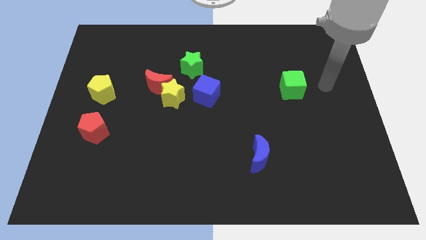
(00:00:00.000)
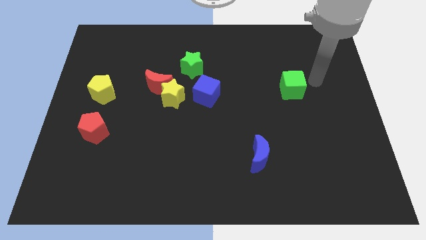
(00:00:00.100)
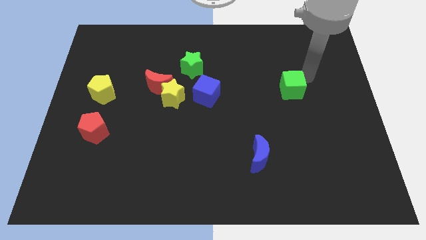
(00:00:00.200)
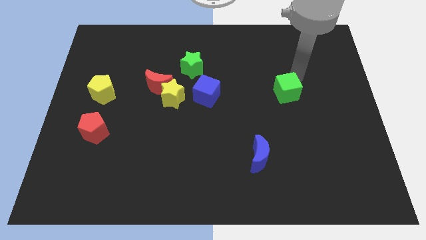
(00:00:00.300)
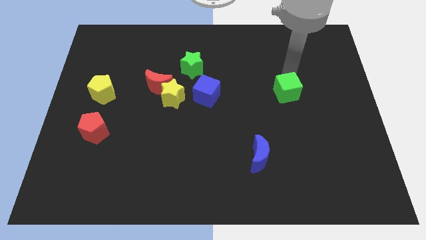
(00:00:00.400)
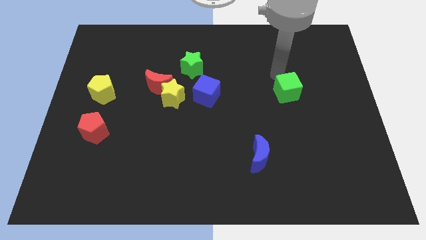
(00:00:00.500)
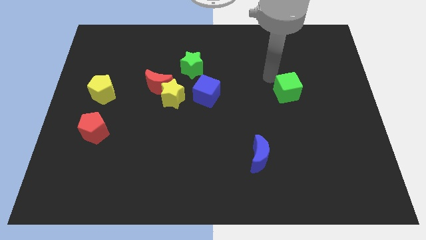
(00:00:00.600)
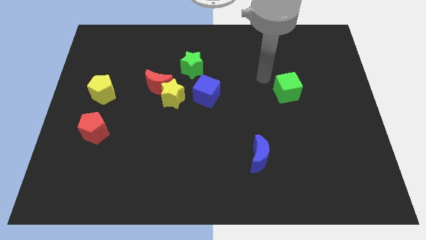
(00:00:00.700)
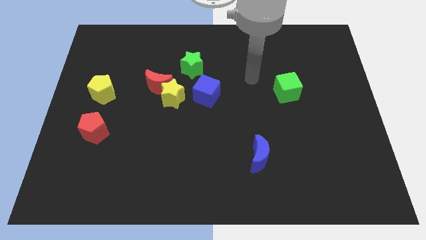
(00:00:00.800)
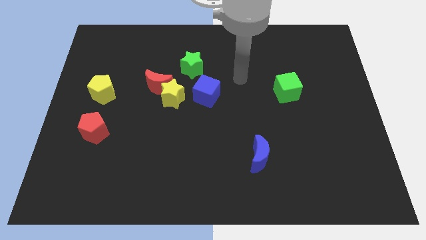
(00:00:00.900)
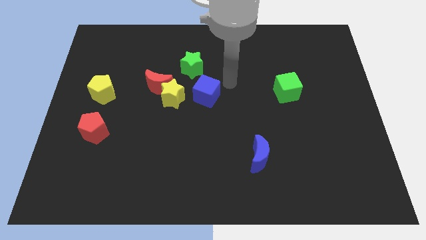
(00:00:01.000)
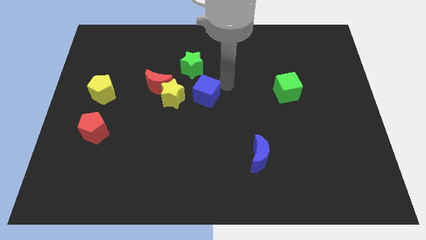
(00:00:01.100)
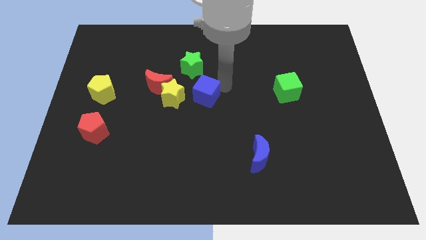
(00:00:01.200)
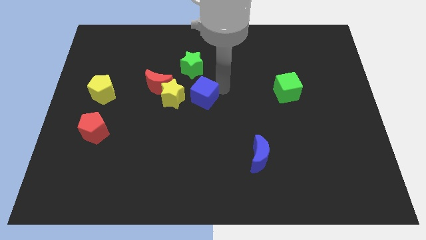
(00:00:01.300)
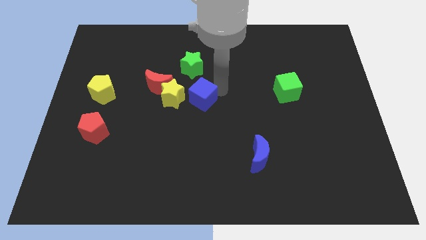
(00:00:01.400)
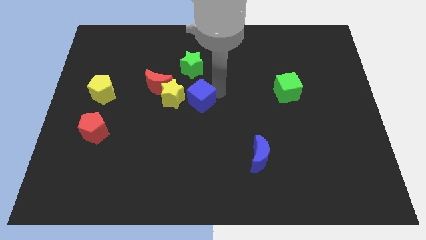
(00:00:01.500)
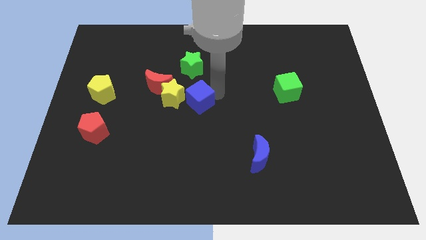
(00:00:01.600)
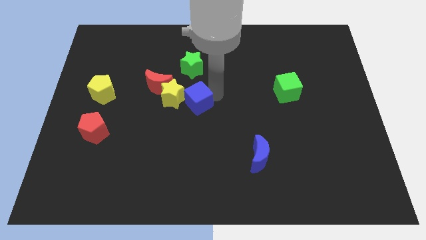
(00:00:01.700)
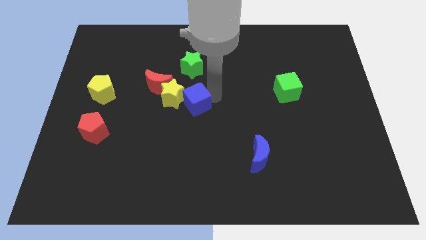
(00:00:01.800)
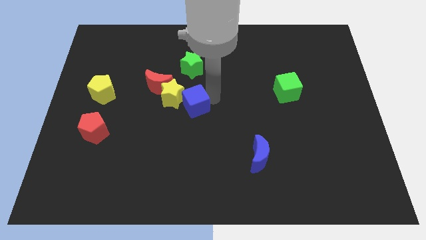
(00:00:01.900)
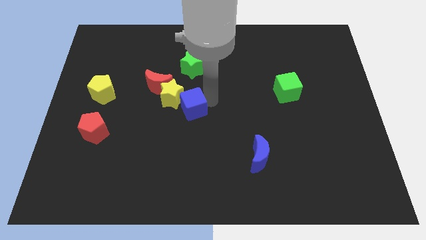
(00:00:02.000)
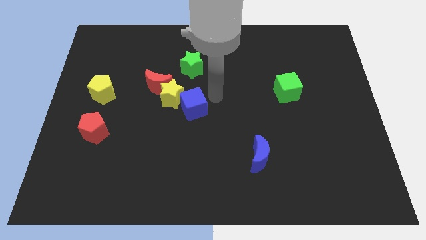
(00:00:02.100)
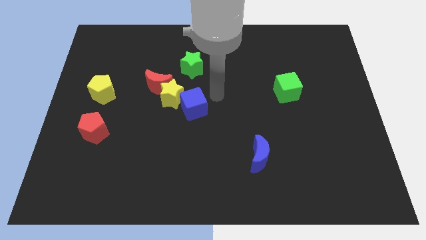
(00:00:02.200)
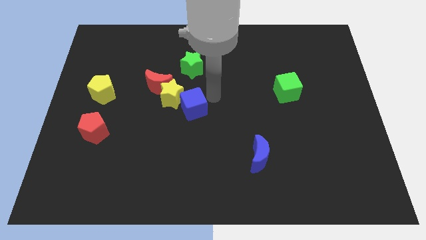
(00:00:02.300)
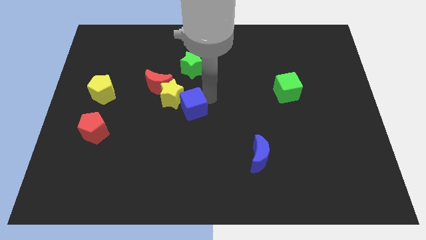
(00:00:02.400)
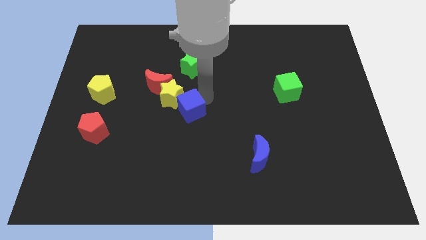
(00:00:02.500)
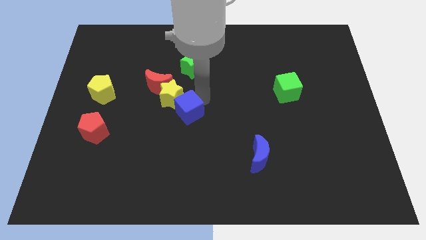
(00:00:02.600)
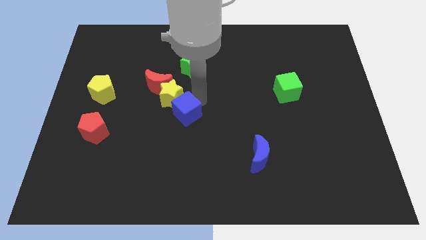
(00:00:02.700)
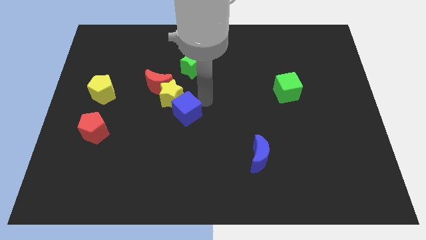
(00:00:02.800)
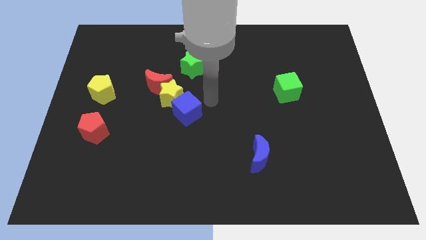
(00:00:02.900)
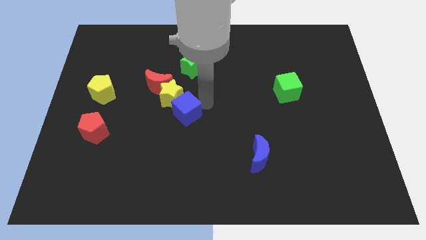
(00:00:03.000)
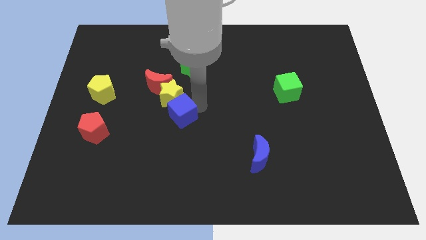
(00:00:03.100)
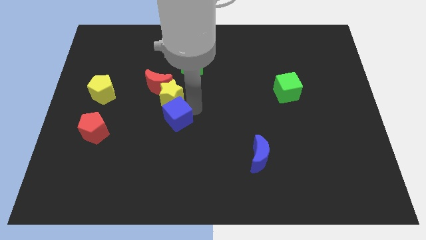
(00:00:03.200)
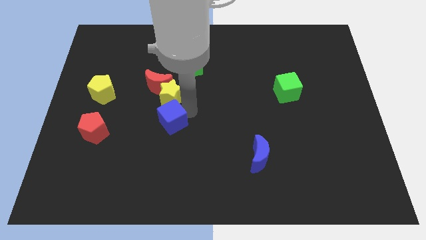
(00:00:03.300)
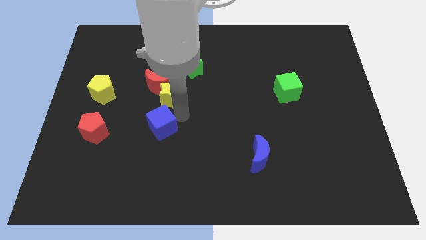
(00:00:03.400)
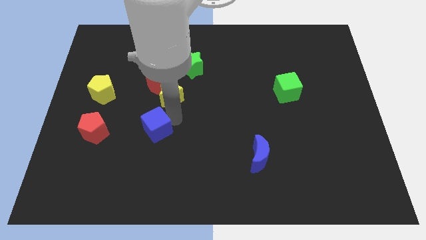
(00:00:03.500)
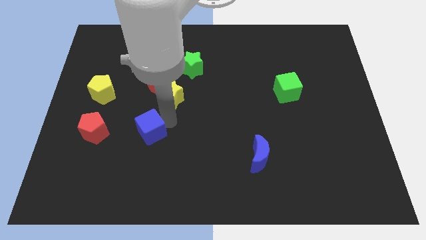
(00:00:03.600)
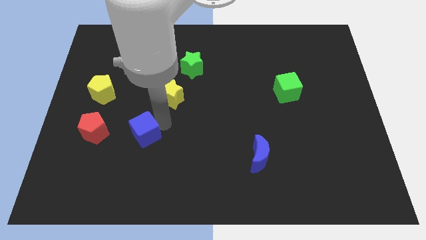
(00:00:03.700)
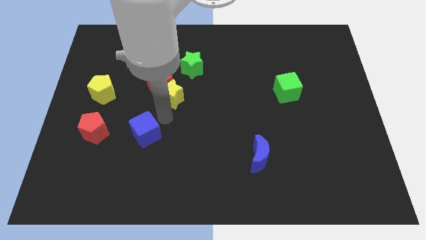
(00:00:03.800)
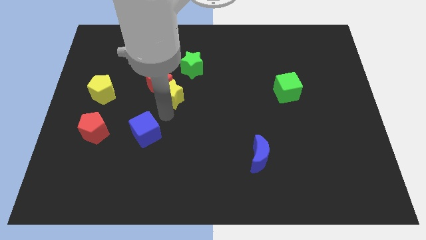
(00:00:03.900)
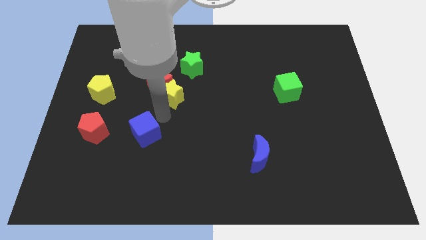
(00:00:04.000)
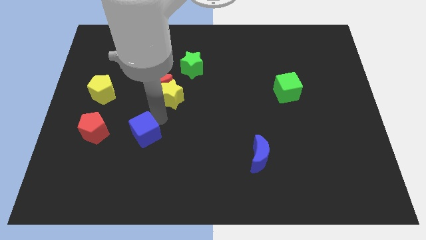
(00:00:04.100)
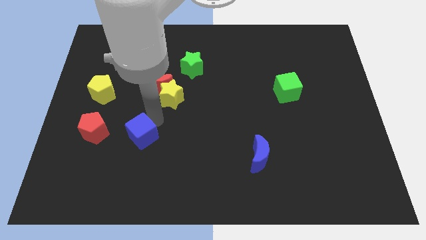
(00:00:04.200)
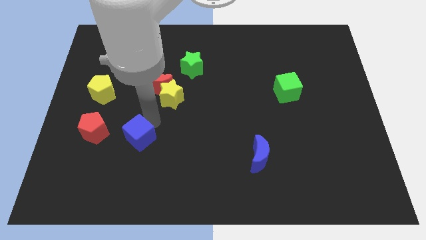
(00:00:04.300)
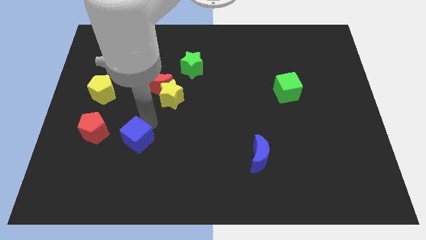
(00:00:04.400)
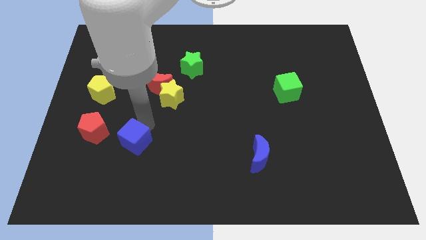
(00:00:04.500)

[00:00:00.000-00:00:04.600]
push the blue cube down and to the left diagonally

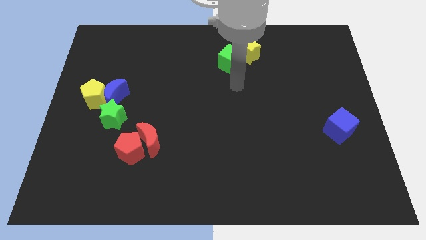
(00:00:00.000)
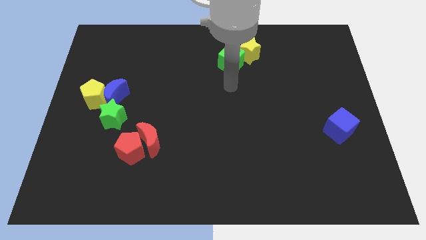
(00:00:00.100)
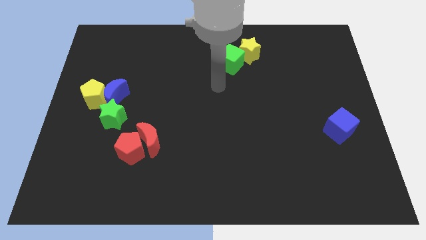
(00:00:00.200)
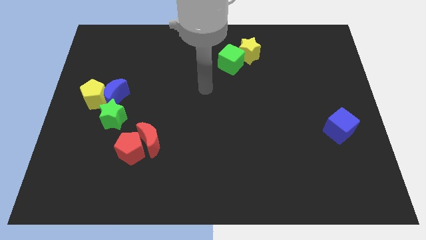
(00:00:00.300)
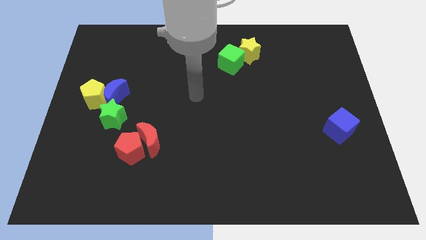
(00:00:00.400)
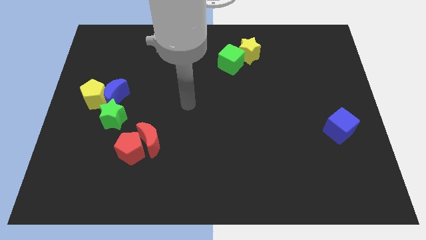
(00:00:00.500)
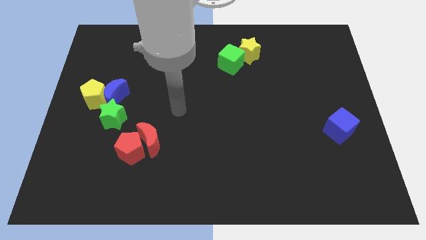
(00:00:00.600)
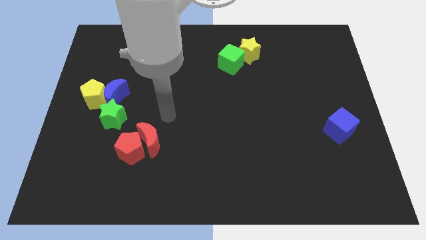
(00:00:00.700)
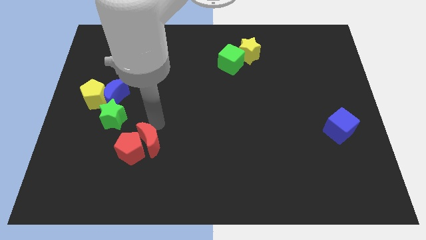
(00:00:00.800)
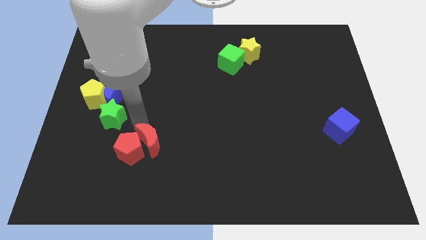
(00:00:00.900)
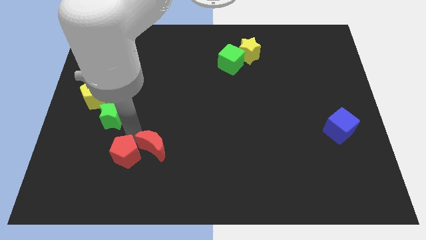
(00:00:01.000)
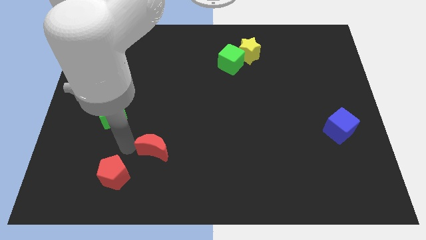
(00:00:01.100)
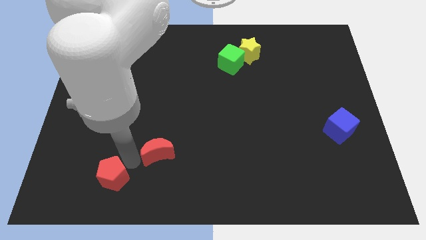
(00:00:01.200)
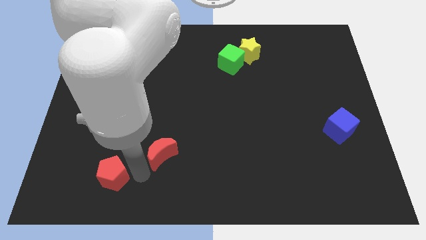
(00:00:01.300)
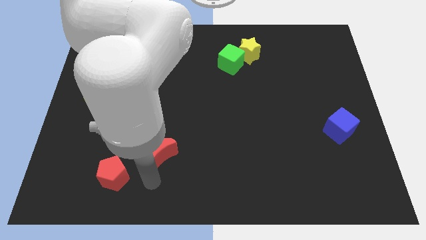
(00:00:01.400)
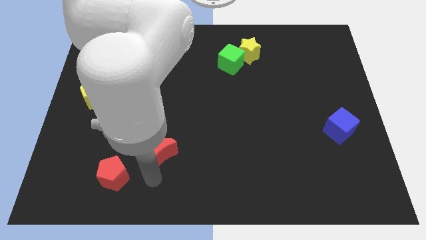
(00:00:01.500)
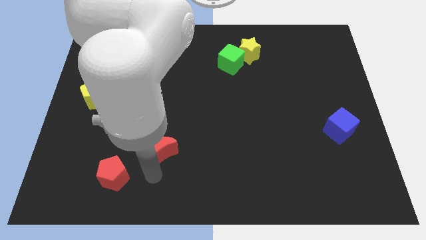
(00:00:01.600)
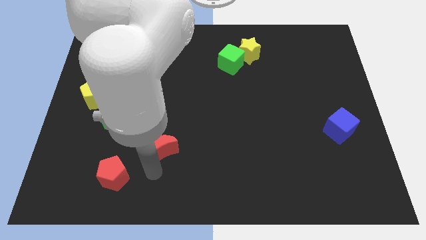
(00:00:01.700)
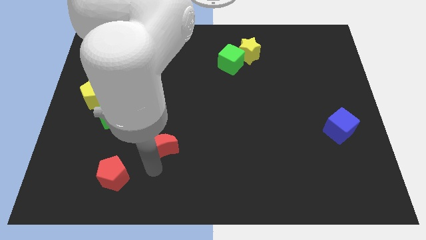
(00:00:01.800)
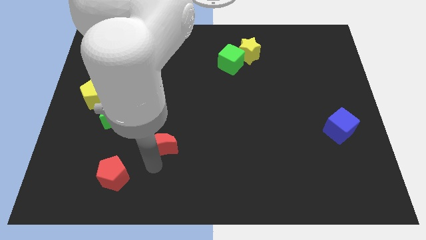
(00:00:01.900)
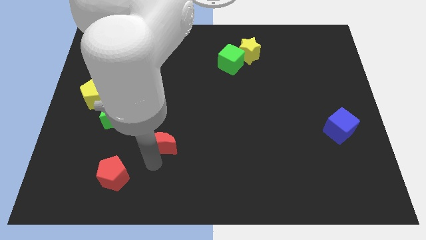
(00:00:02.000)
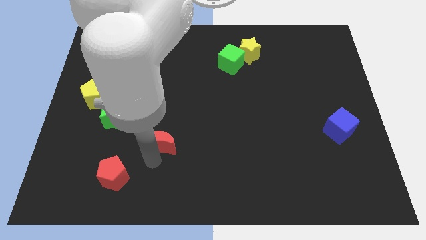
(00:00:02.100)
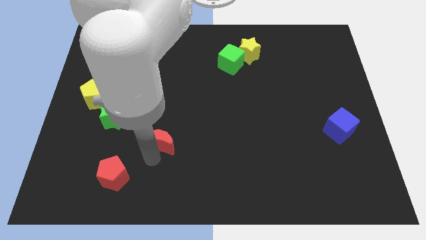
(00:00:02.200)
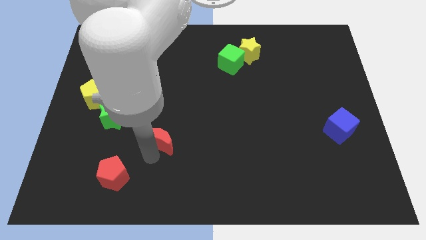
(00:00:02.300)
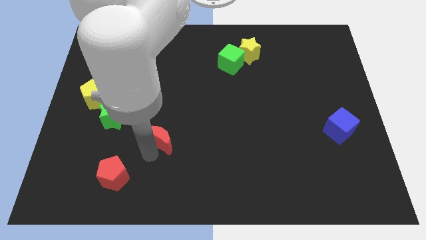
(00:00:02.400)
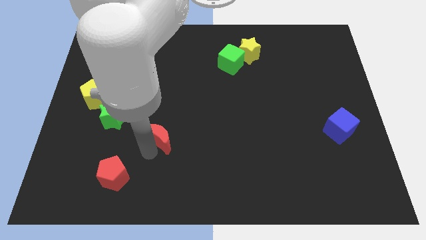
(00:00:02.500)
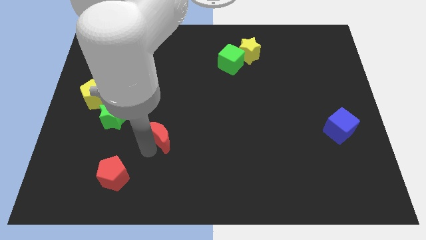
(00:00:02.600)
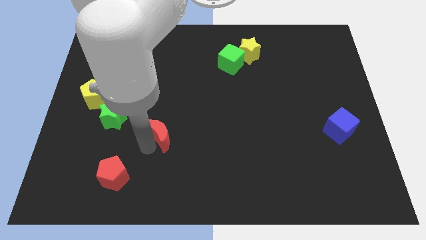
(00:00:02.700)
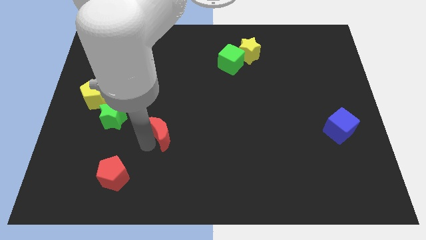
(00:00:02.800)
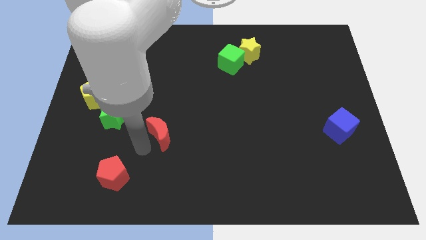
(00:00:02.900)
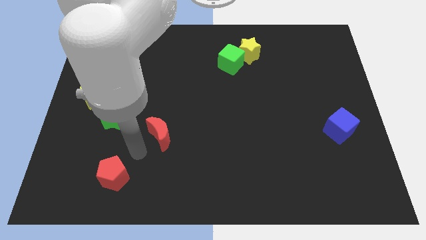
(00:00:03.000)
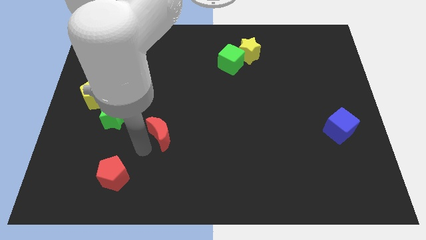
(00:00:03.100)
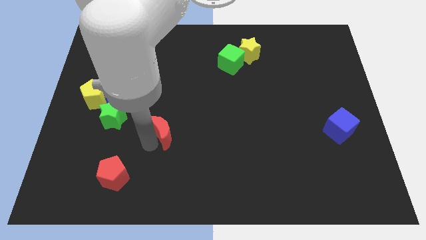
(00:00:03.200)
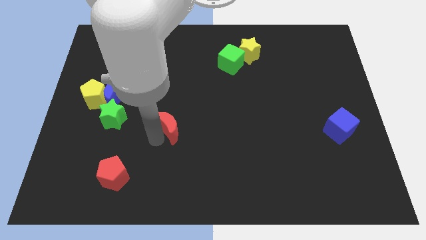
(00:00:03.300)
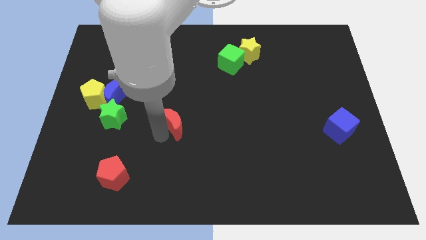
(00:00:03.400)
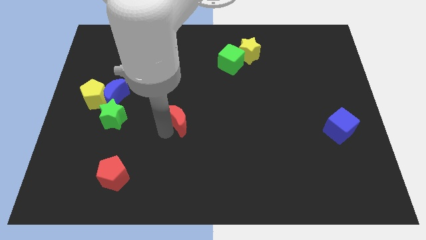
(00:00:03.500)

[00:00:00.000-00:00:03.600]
push the red moon a little diagonally upwards and to the right

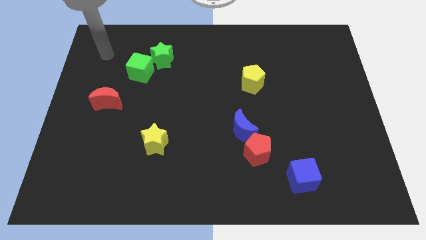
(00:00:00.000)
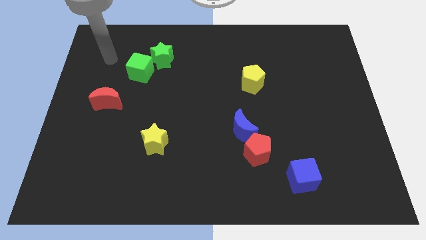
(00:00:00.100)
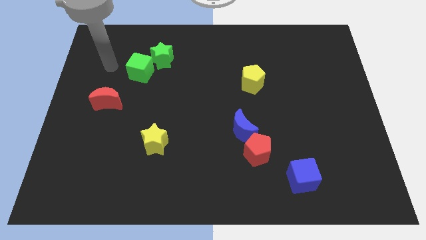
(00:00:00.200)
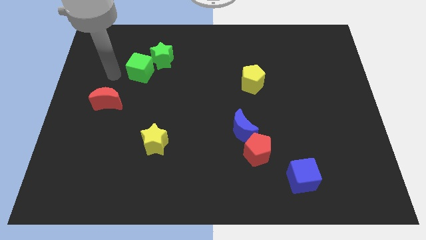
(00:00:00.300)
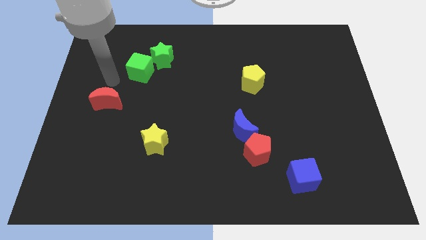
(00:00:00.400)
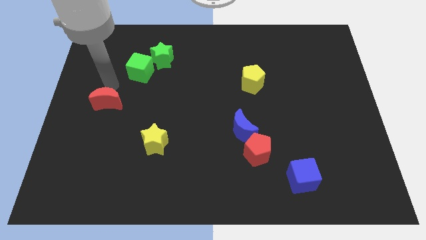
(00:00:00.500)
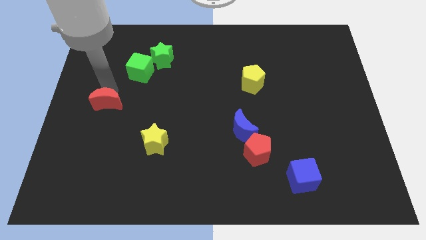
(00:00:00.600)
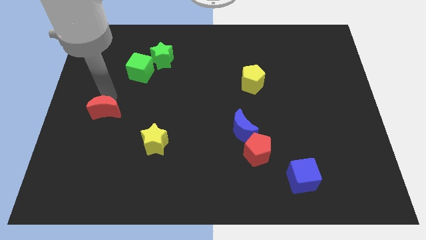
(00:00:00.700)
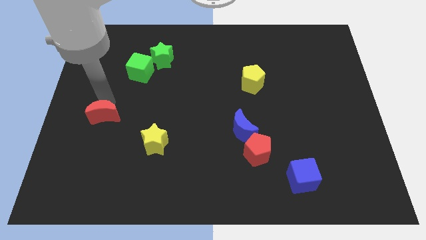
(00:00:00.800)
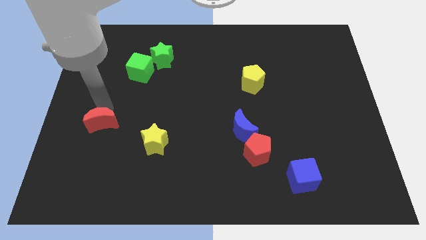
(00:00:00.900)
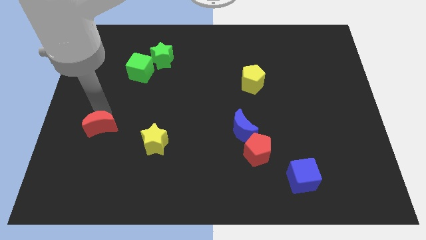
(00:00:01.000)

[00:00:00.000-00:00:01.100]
slightly push the red moon down
